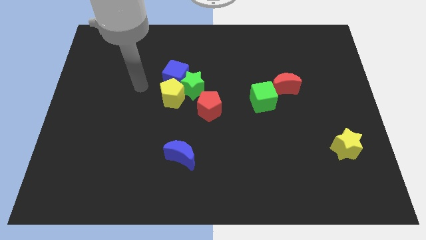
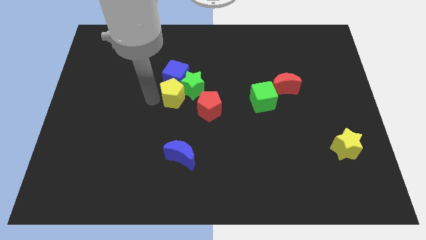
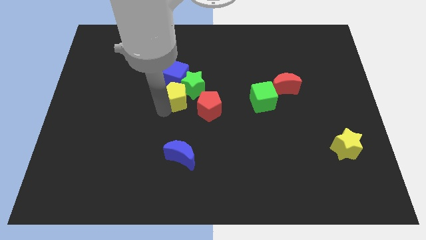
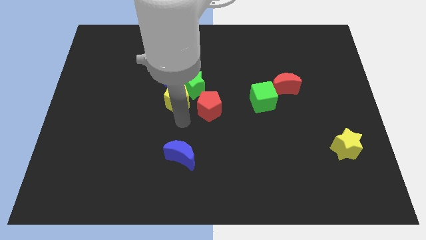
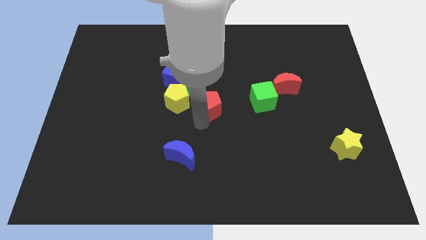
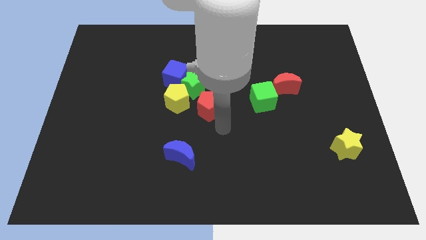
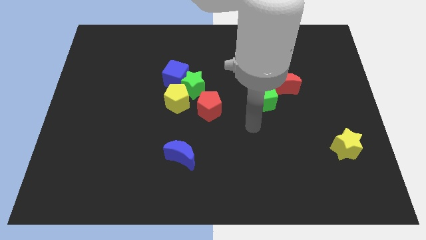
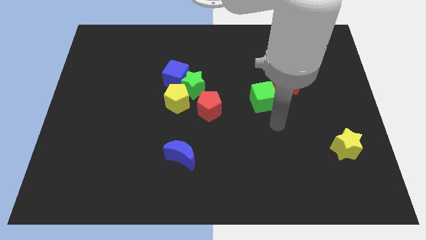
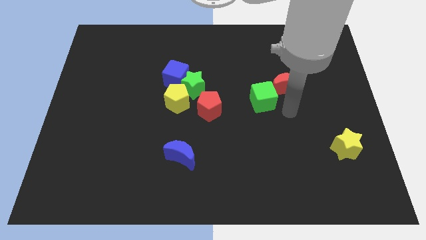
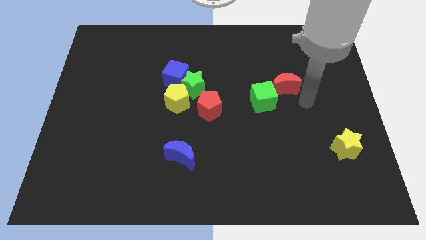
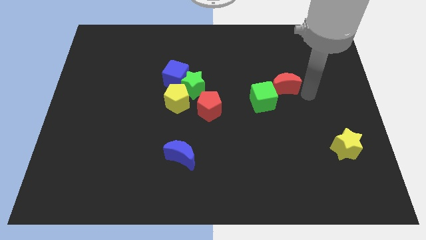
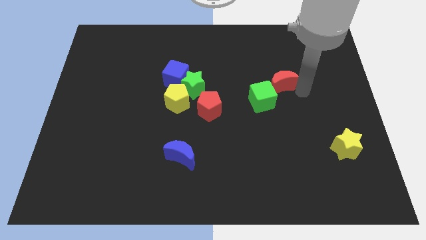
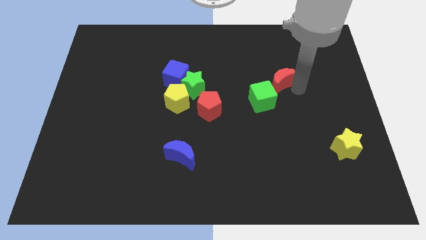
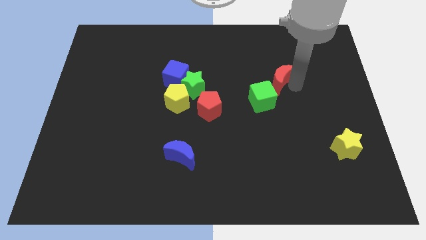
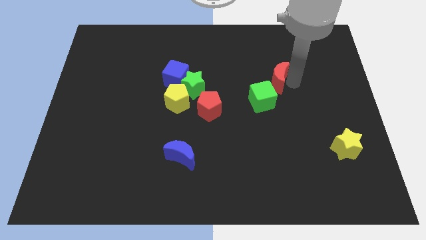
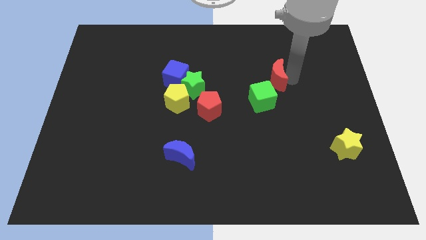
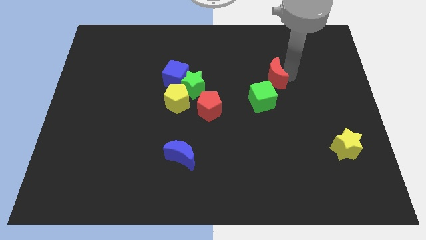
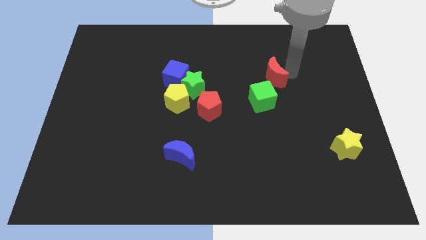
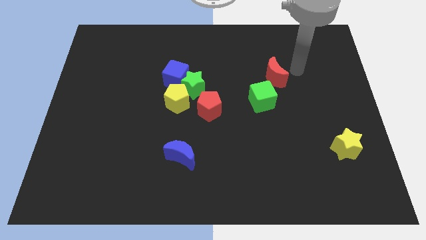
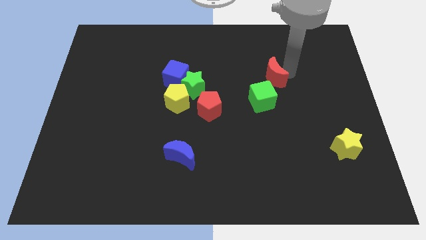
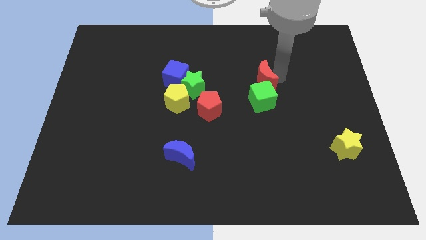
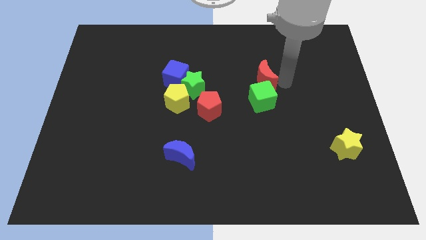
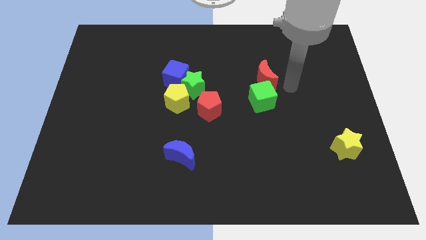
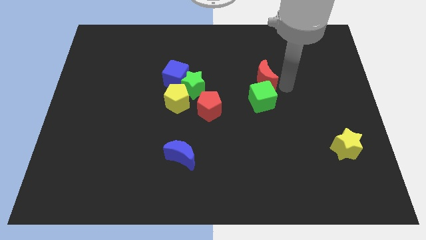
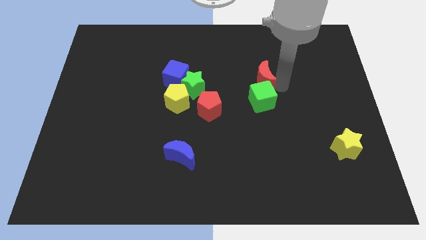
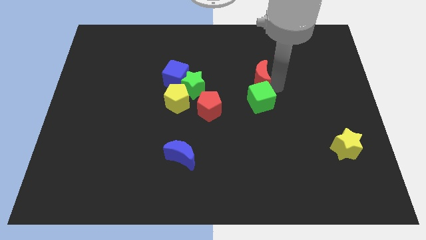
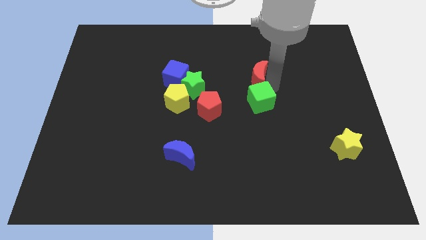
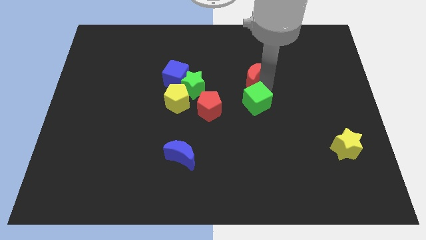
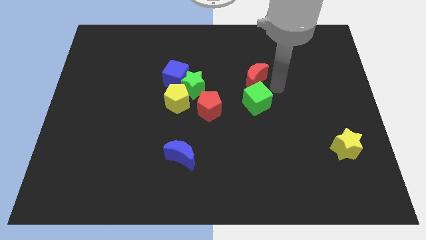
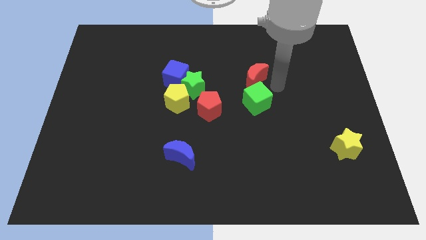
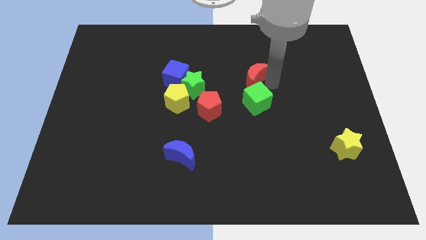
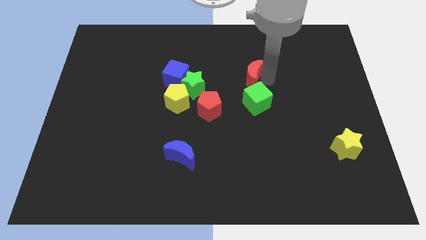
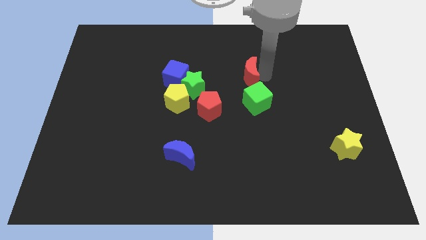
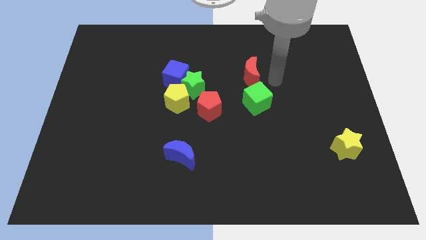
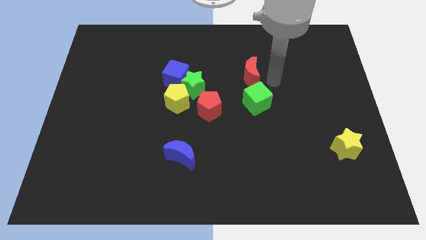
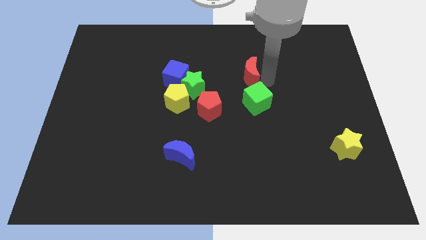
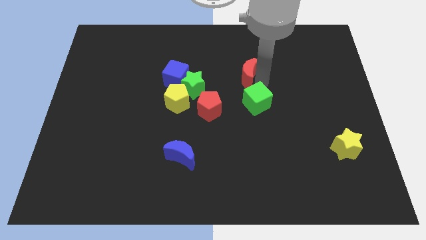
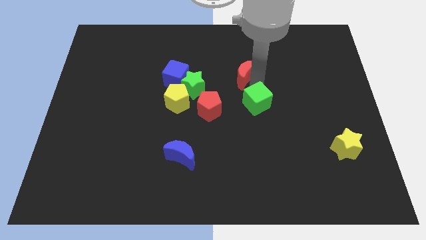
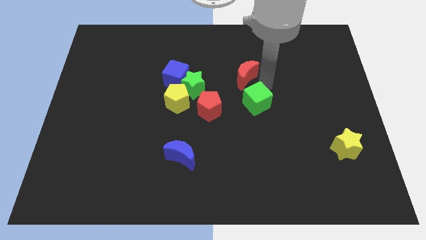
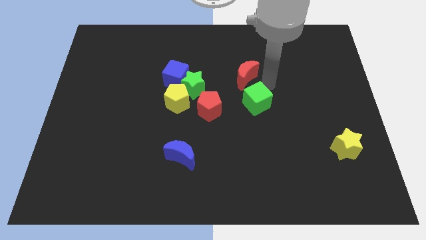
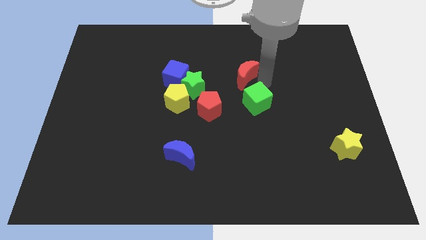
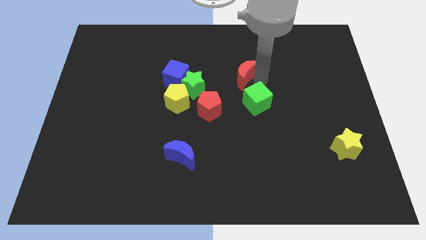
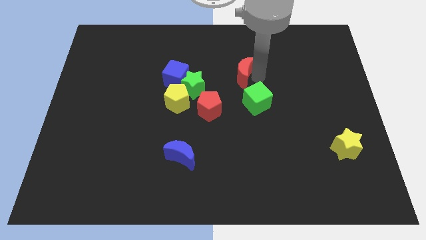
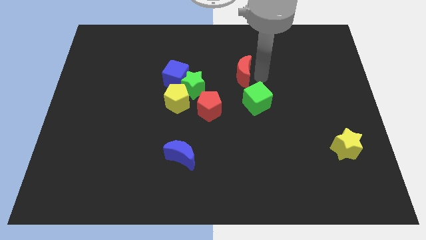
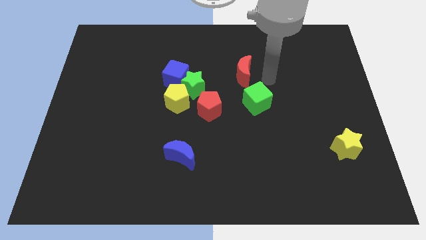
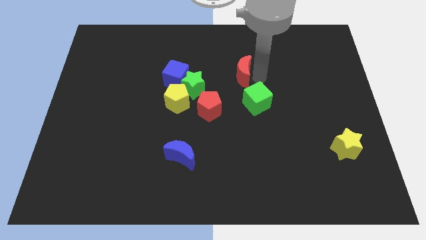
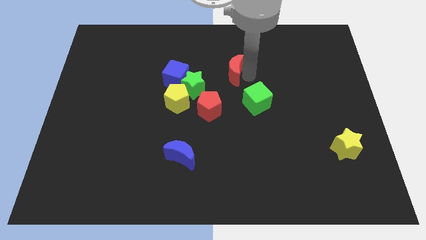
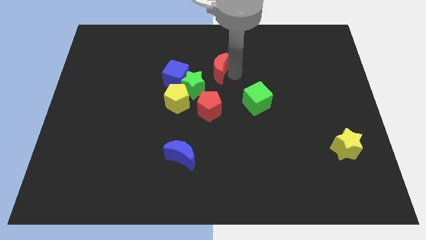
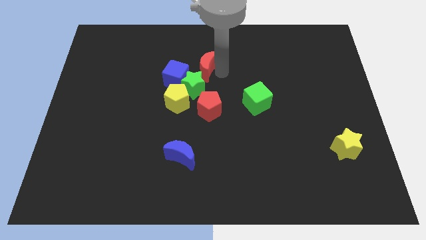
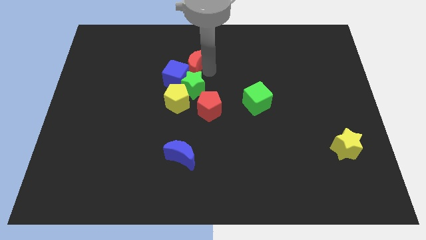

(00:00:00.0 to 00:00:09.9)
push the red moon close to the blue cube

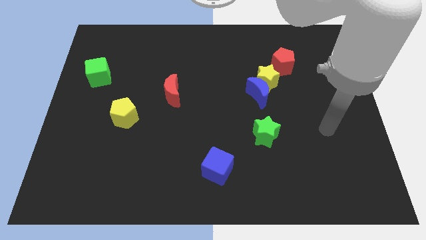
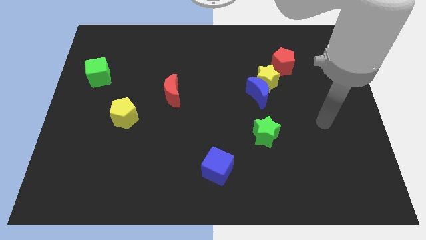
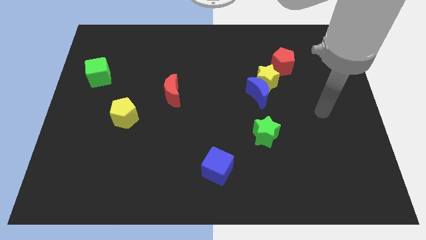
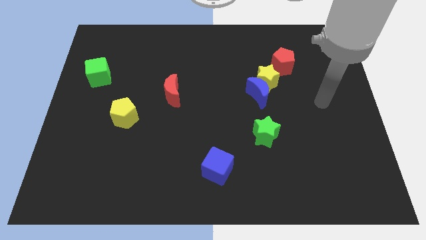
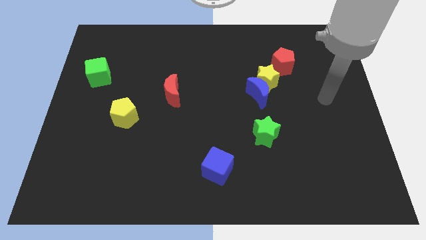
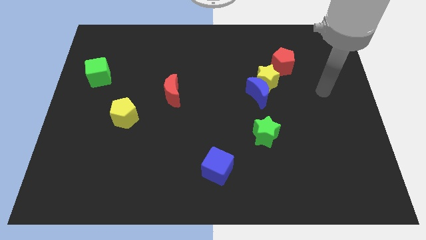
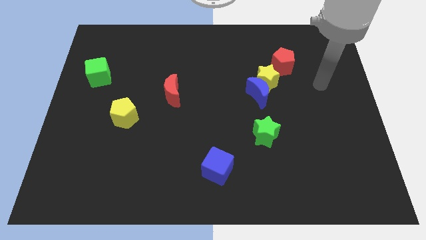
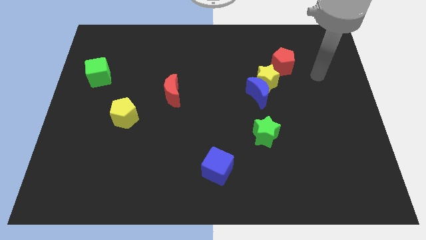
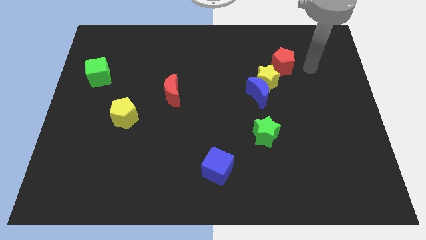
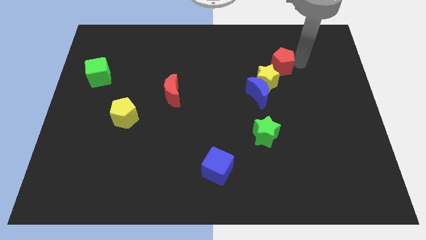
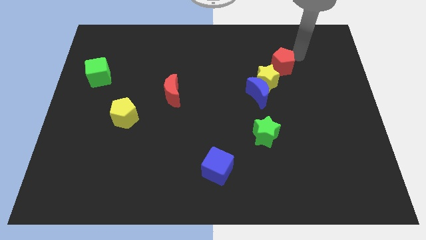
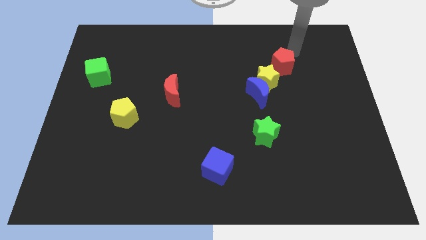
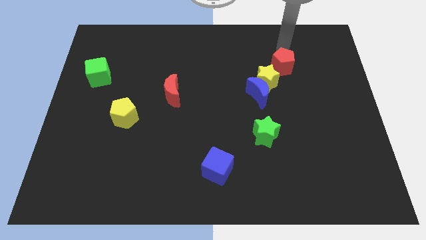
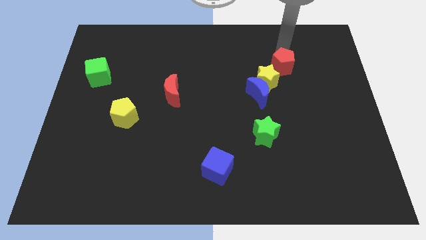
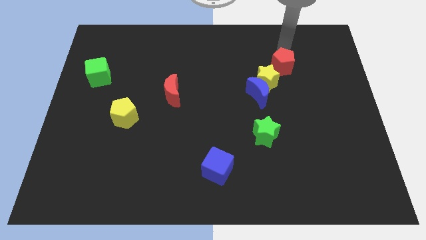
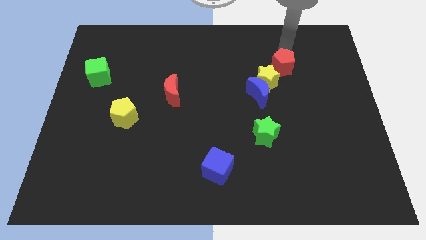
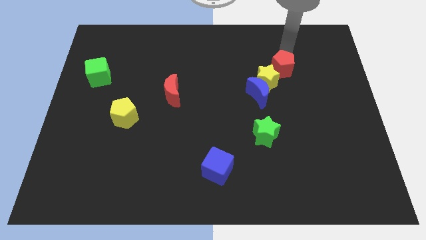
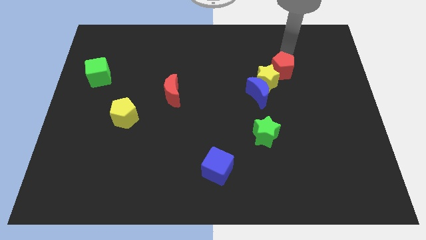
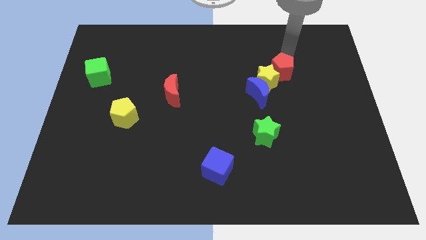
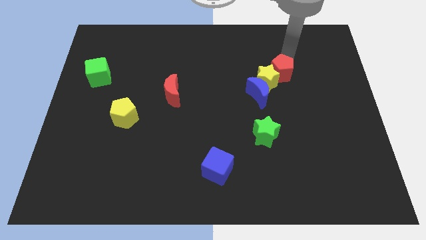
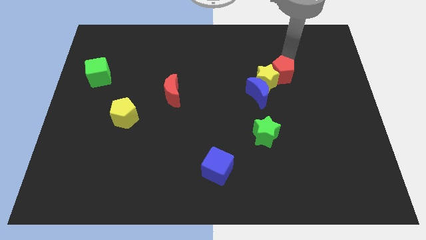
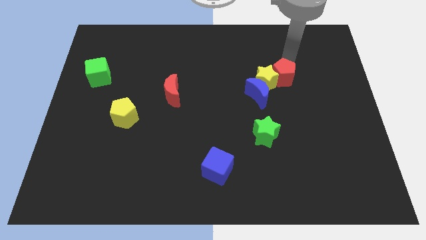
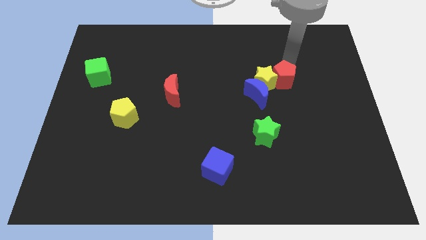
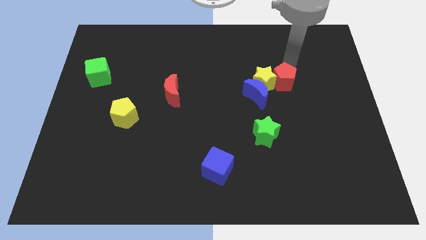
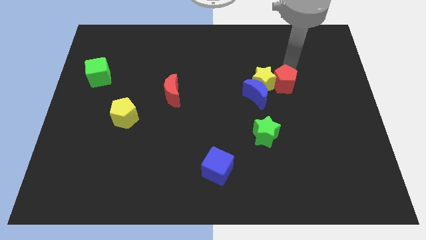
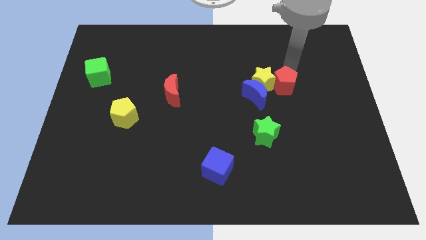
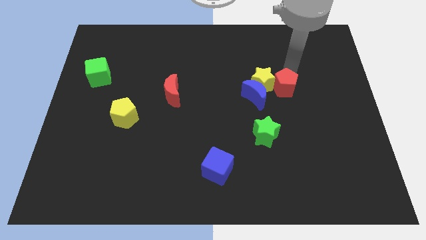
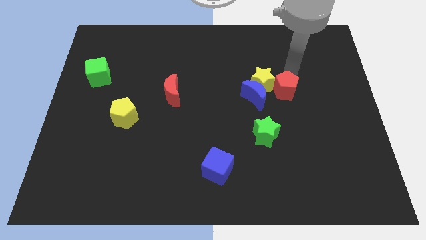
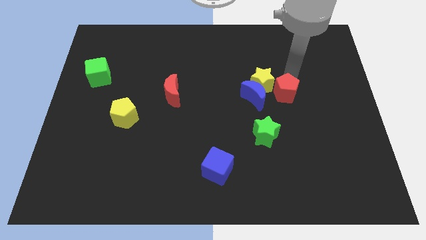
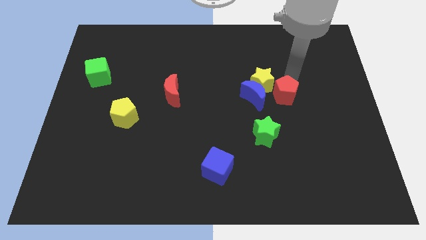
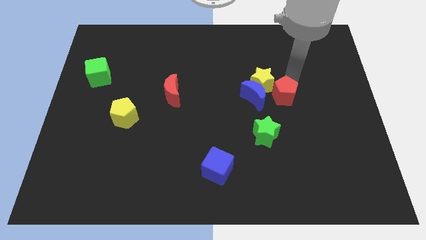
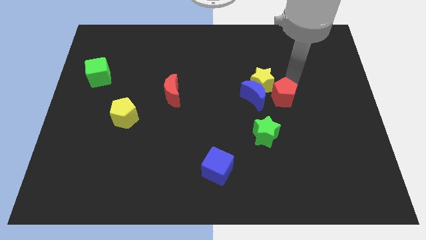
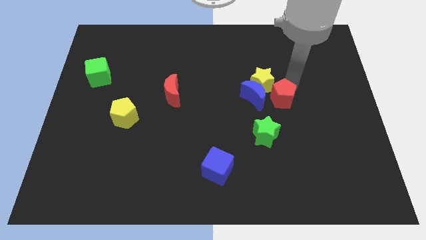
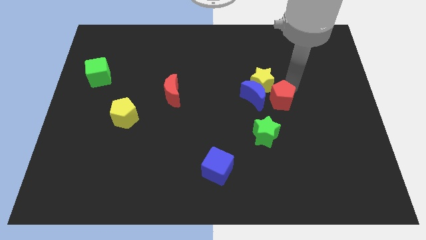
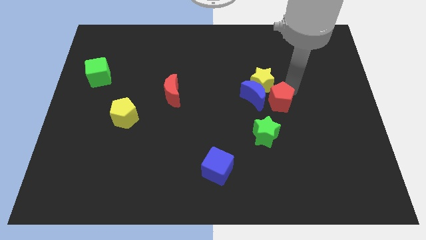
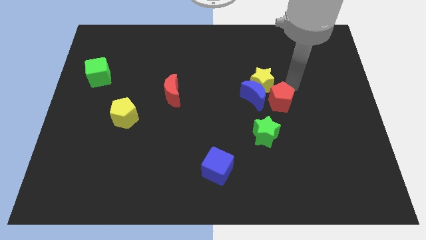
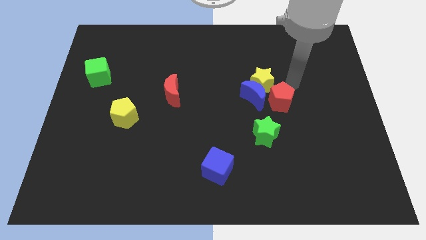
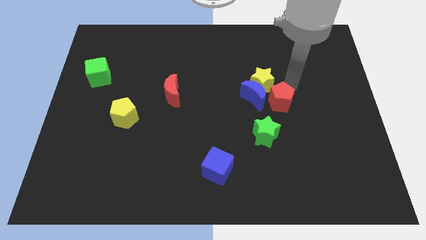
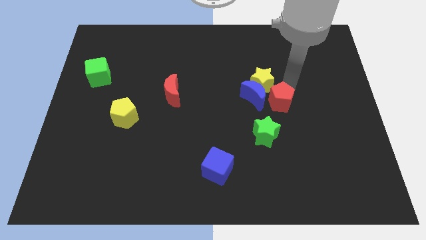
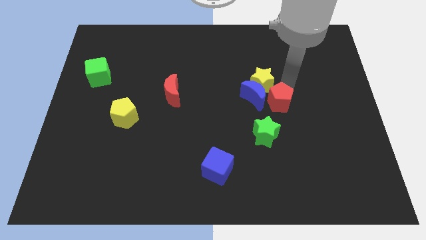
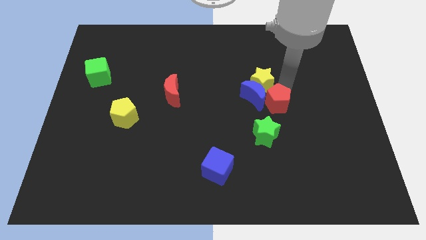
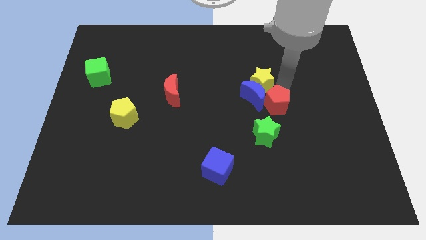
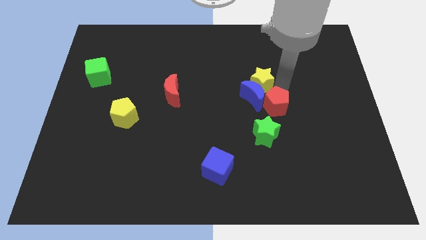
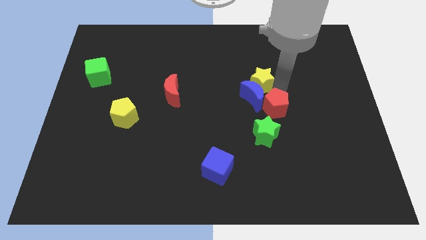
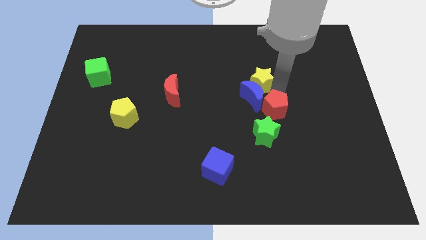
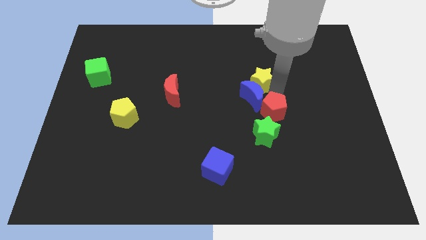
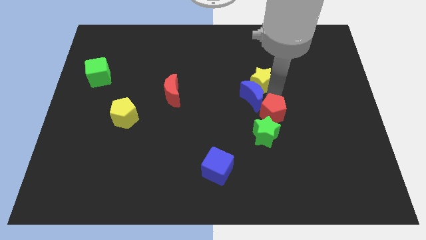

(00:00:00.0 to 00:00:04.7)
slide the red pentagon towards the green star
